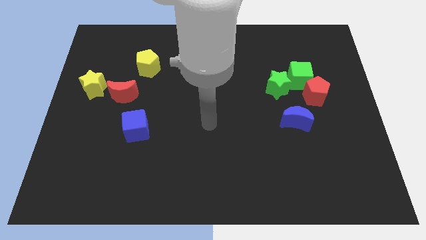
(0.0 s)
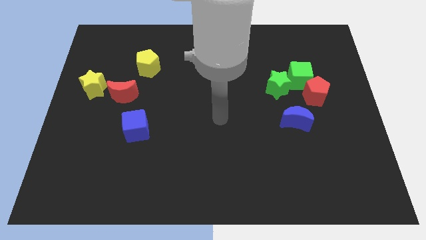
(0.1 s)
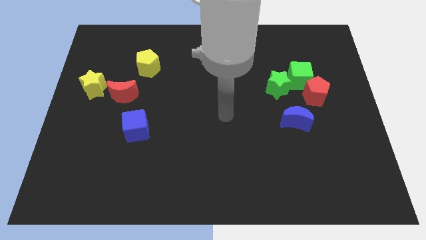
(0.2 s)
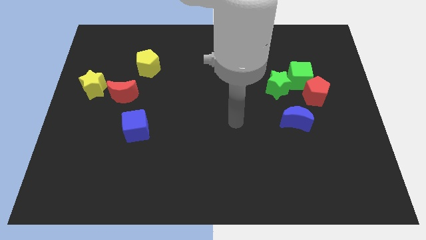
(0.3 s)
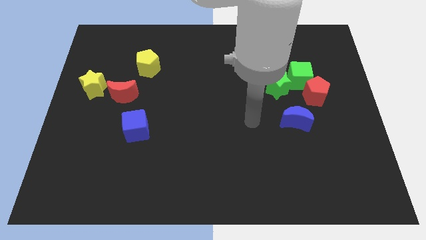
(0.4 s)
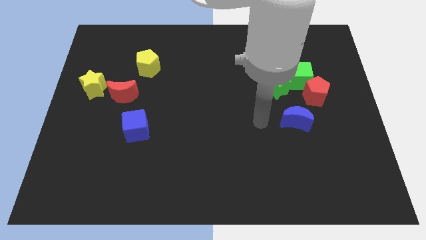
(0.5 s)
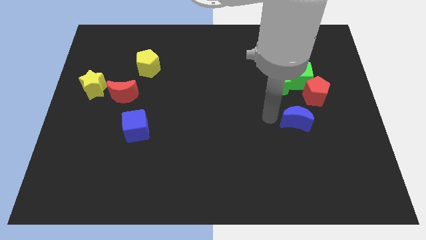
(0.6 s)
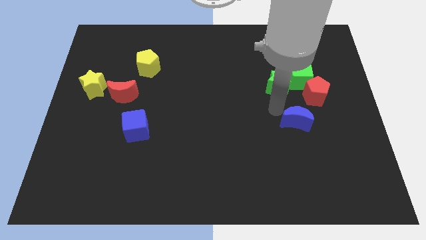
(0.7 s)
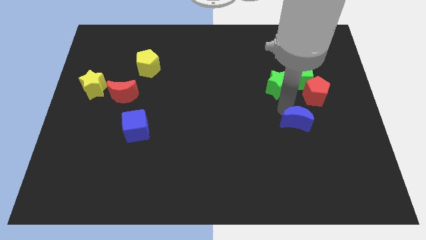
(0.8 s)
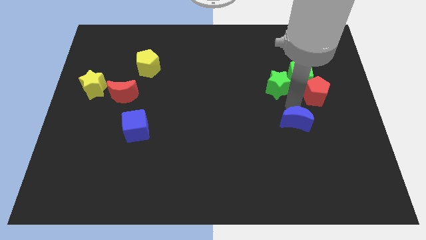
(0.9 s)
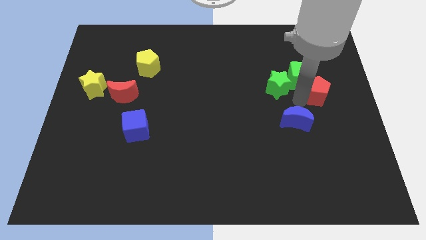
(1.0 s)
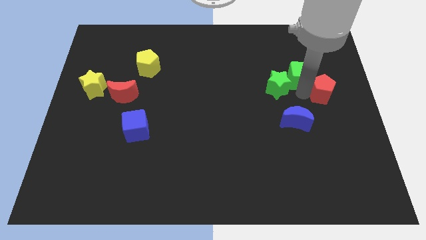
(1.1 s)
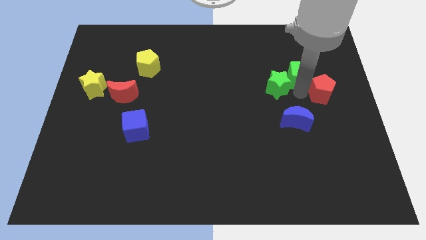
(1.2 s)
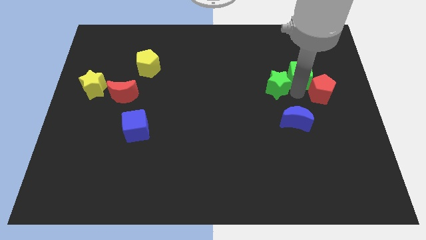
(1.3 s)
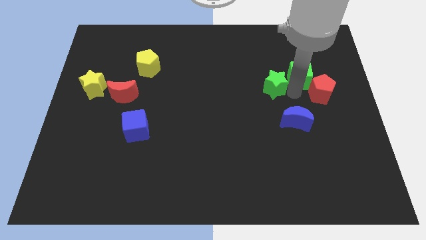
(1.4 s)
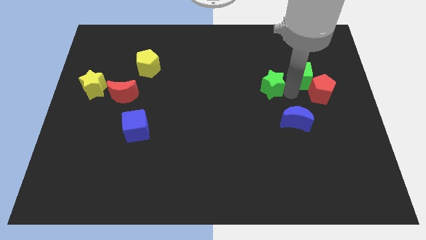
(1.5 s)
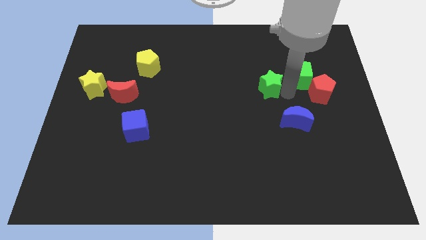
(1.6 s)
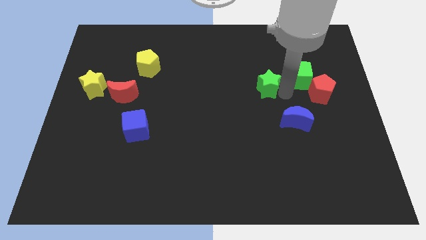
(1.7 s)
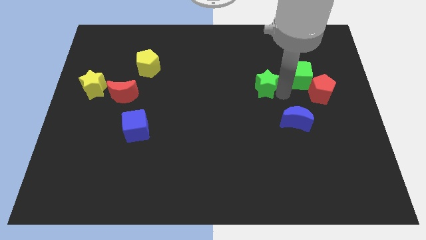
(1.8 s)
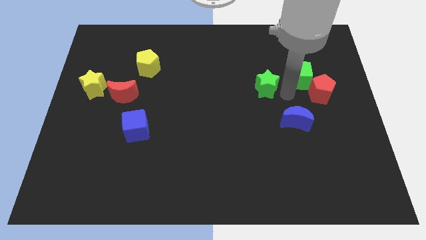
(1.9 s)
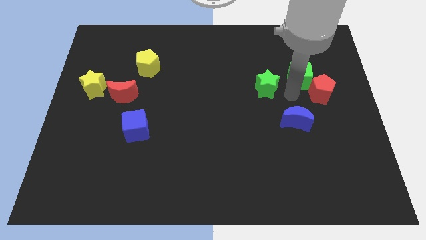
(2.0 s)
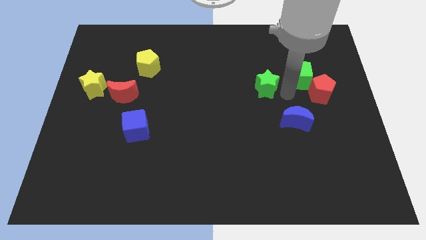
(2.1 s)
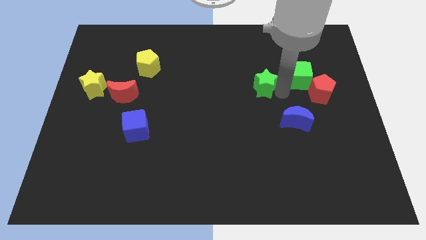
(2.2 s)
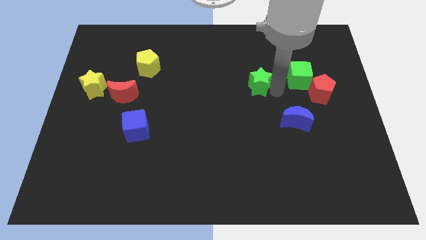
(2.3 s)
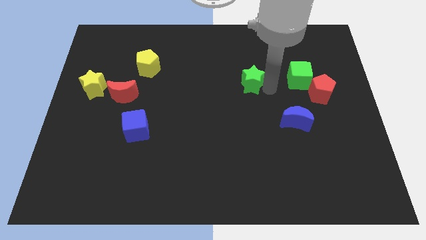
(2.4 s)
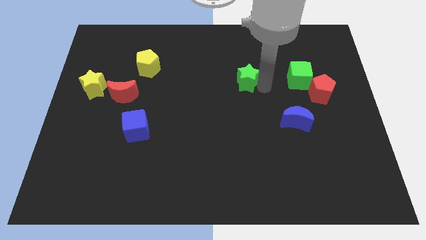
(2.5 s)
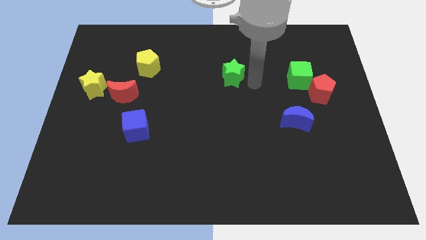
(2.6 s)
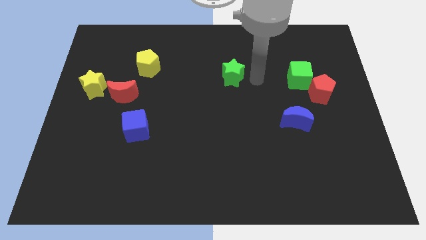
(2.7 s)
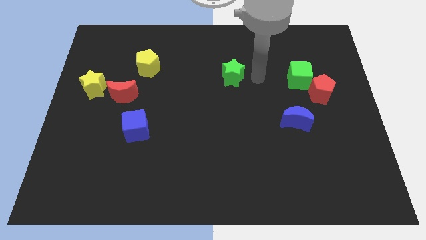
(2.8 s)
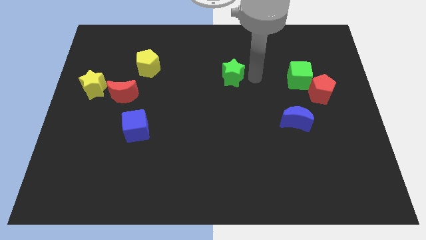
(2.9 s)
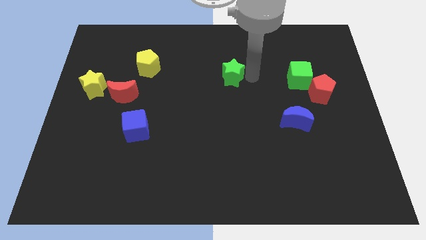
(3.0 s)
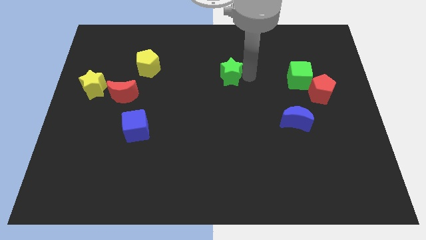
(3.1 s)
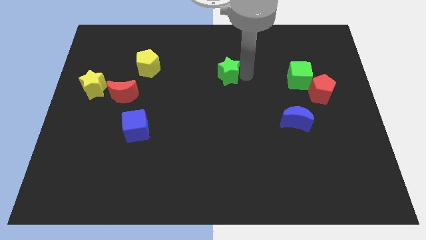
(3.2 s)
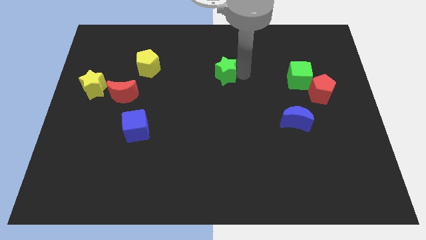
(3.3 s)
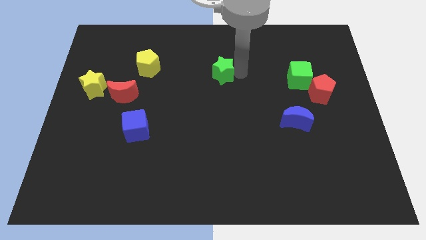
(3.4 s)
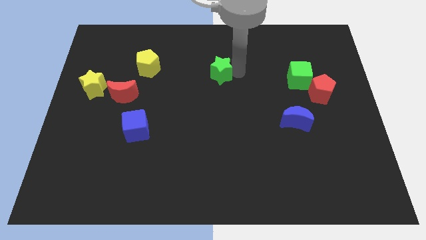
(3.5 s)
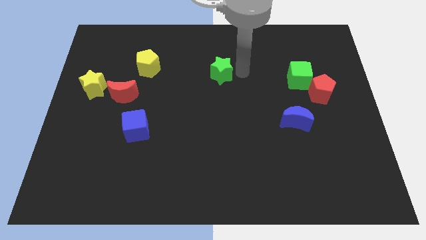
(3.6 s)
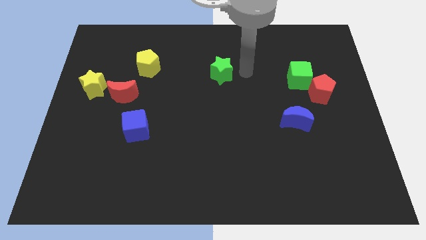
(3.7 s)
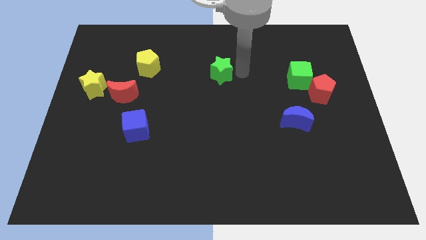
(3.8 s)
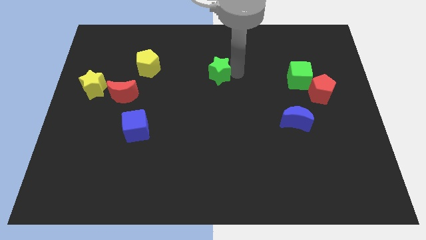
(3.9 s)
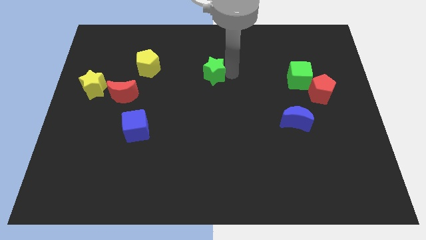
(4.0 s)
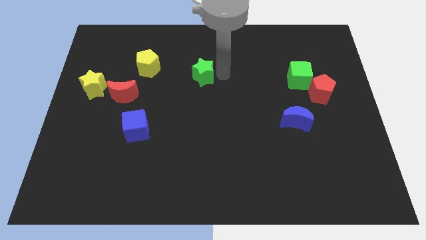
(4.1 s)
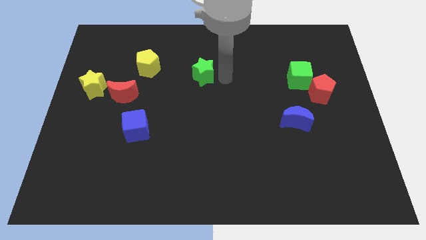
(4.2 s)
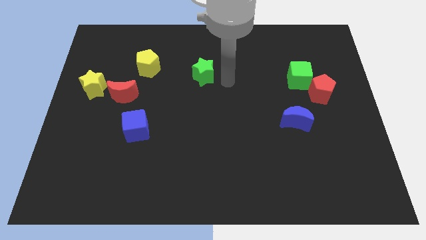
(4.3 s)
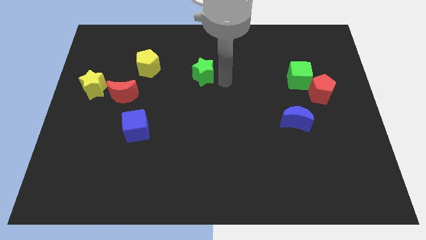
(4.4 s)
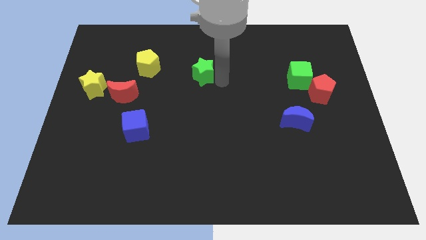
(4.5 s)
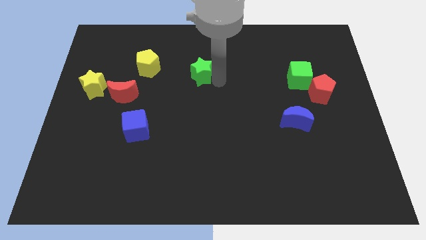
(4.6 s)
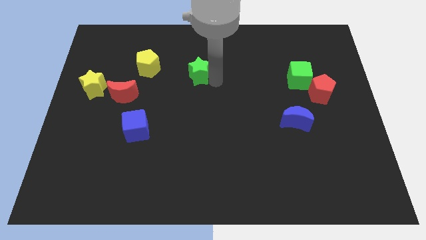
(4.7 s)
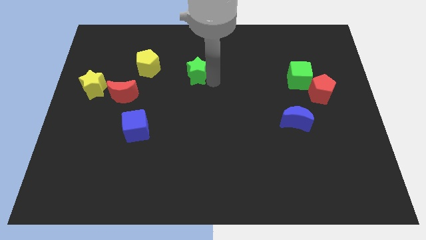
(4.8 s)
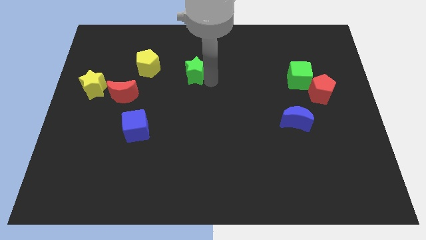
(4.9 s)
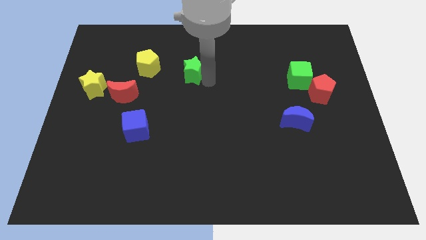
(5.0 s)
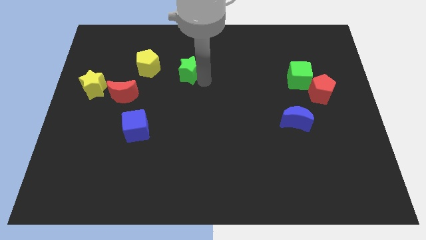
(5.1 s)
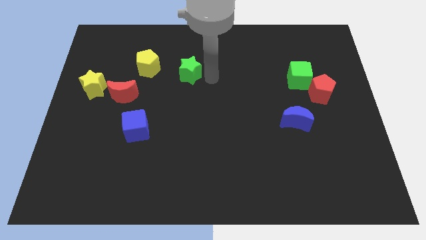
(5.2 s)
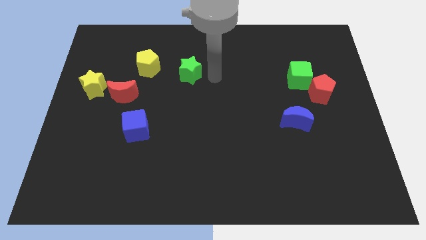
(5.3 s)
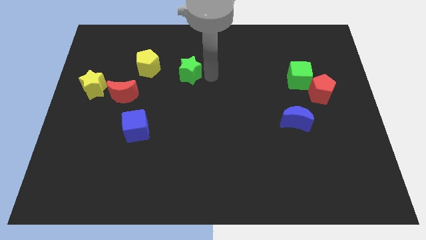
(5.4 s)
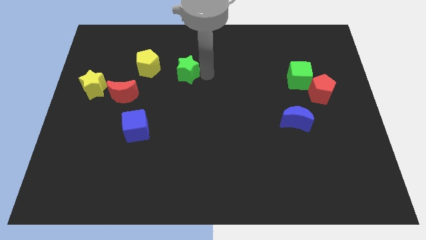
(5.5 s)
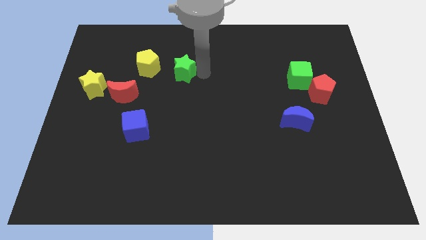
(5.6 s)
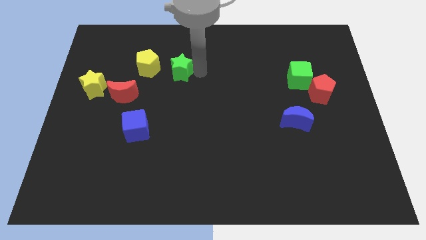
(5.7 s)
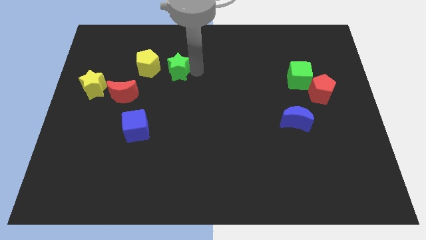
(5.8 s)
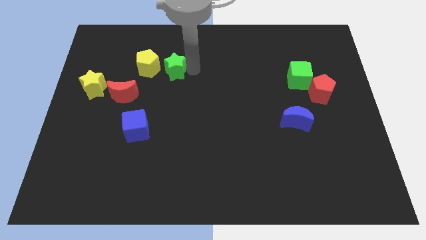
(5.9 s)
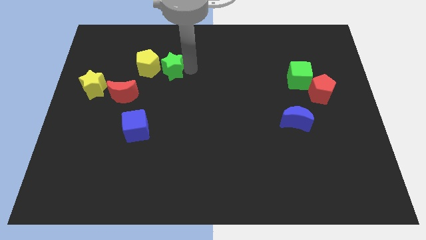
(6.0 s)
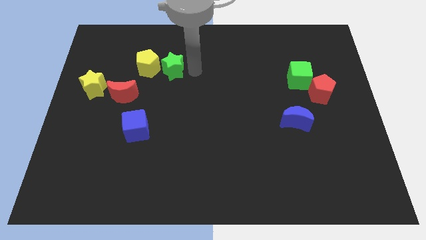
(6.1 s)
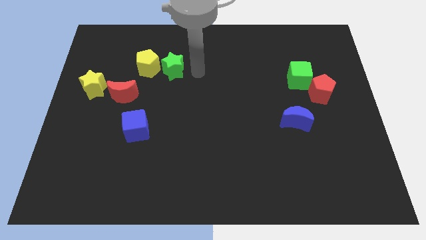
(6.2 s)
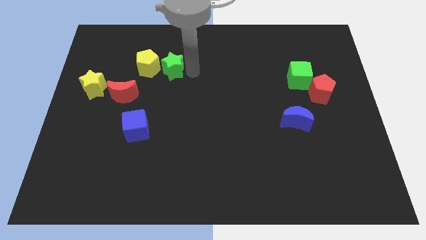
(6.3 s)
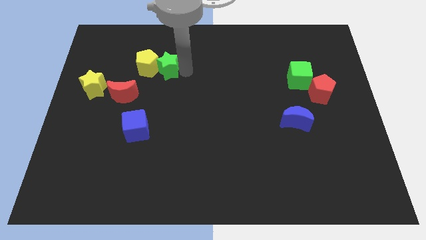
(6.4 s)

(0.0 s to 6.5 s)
move the green star next to the yellow pentagon
